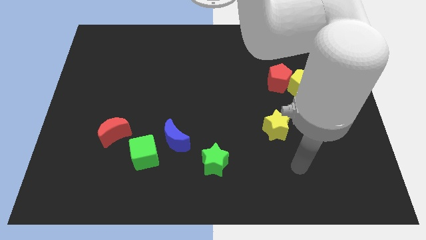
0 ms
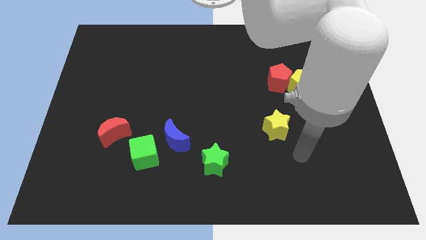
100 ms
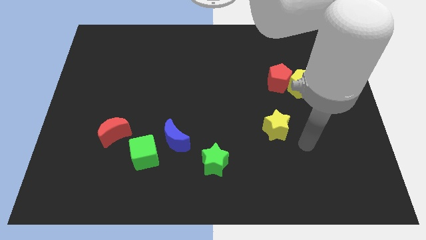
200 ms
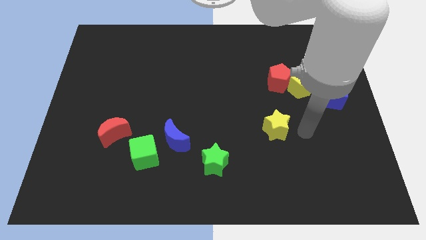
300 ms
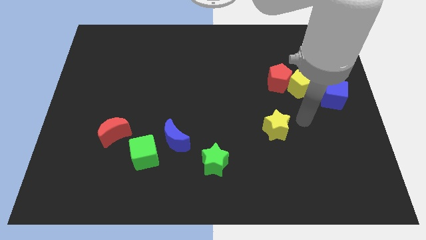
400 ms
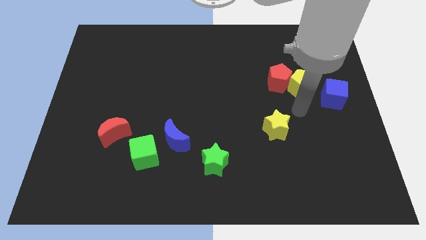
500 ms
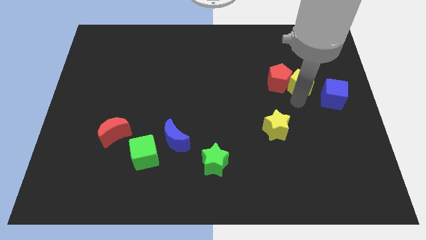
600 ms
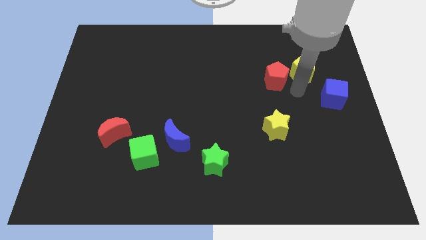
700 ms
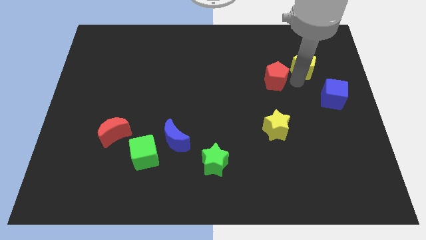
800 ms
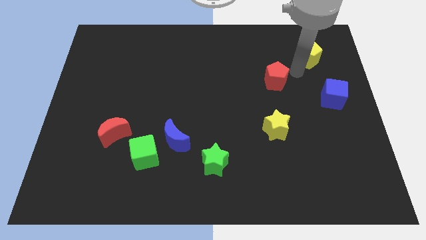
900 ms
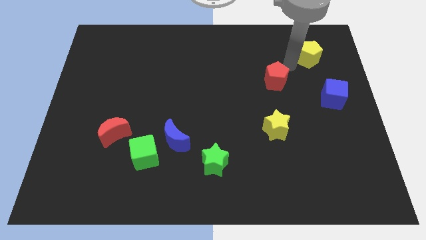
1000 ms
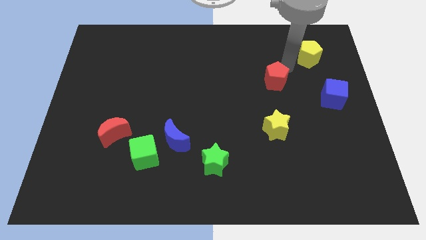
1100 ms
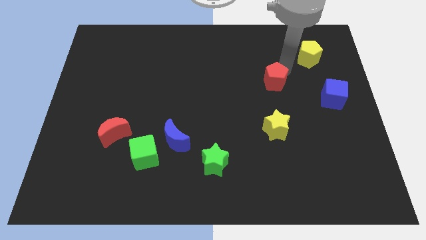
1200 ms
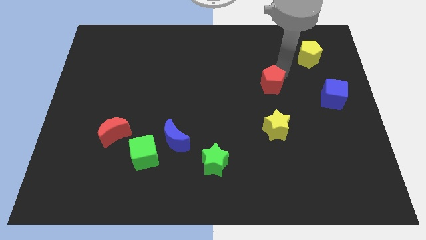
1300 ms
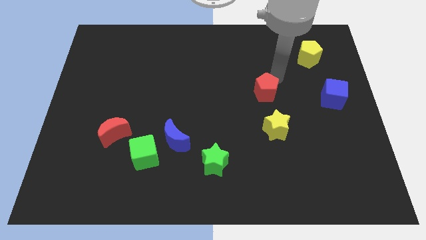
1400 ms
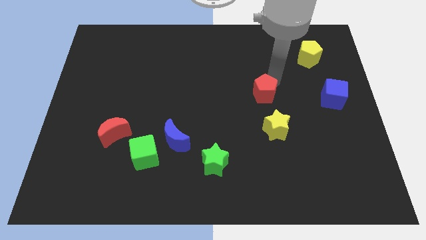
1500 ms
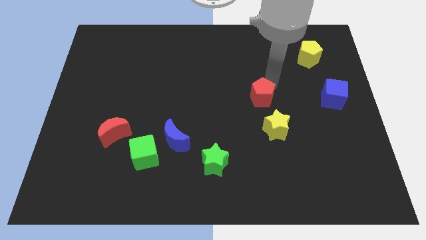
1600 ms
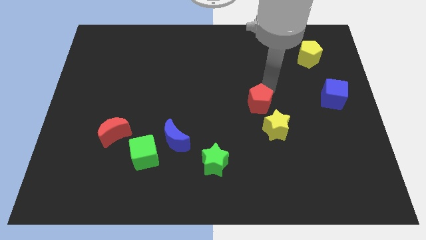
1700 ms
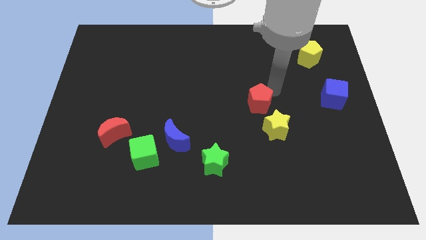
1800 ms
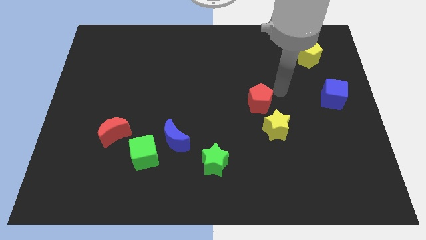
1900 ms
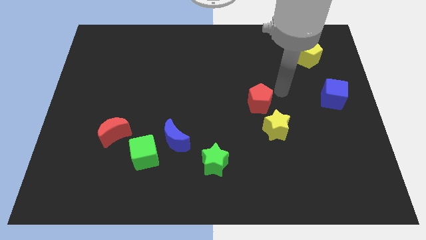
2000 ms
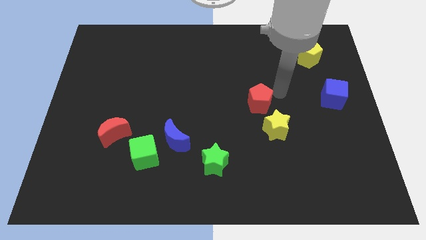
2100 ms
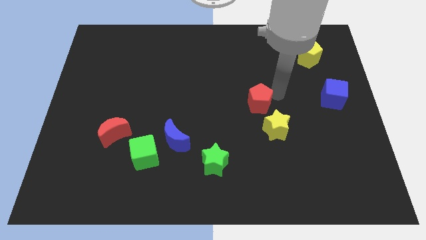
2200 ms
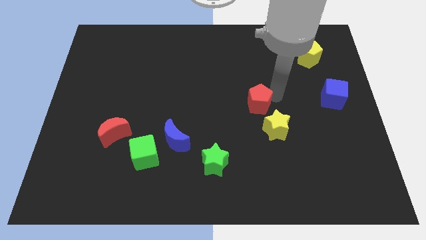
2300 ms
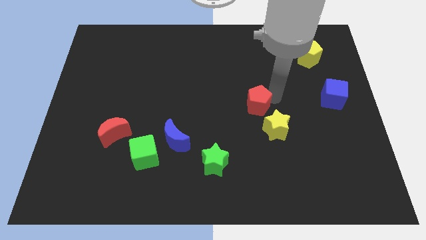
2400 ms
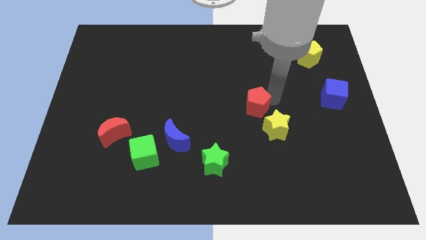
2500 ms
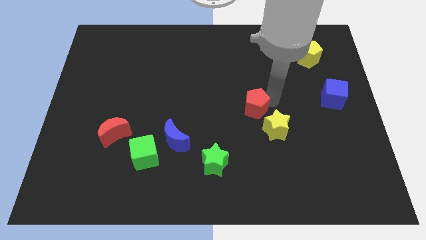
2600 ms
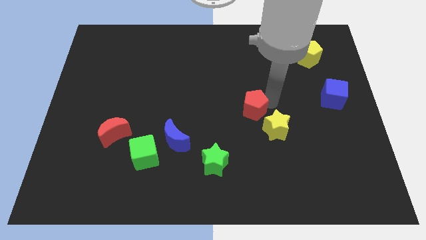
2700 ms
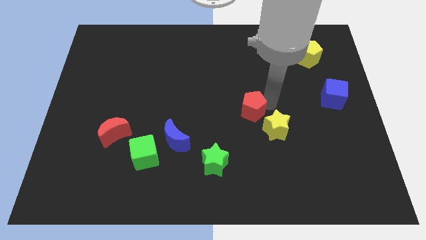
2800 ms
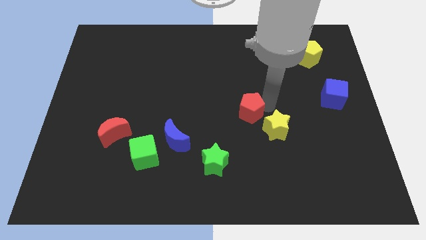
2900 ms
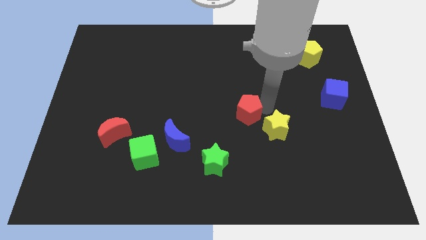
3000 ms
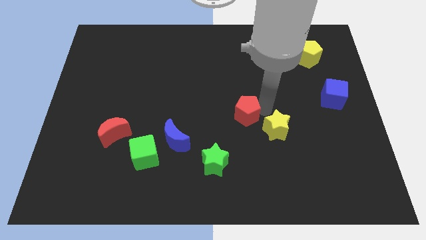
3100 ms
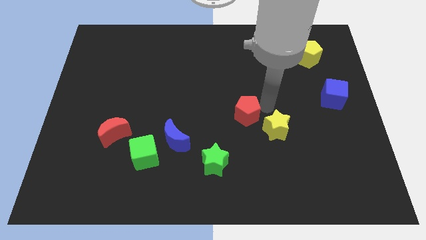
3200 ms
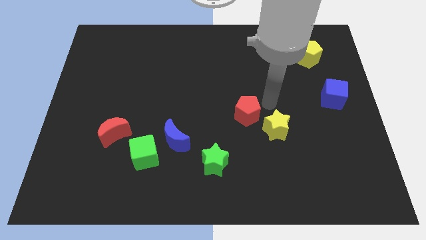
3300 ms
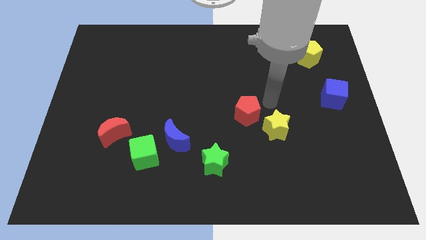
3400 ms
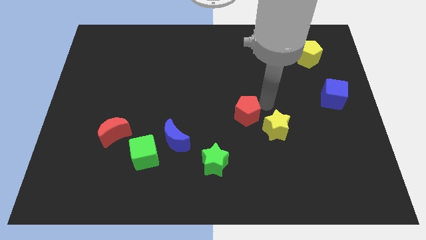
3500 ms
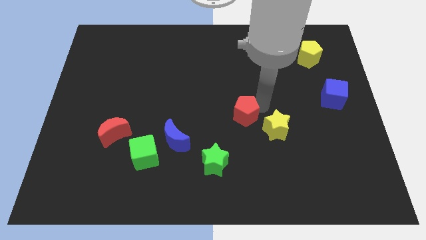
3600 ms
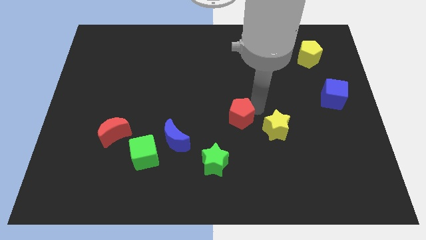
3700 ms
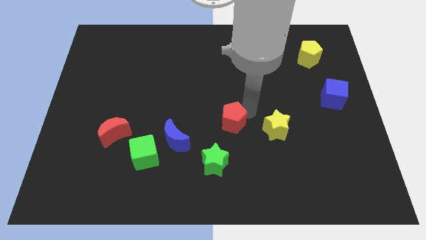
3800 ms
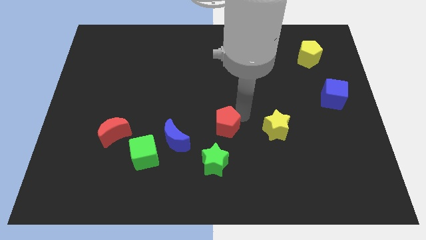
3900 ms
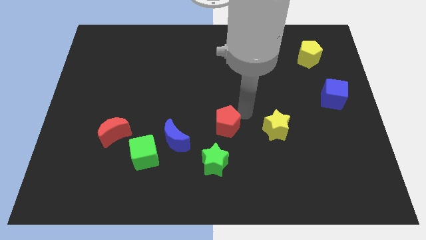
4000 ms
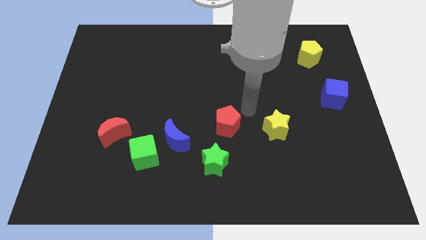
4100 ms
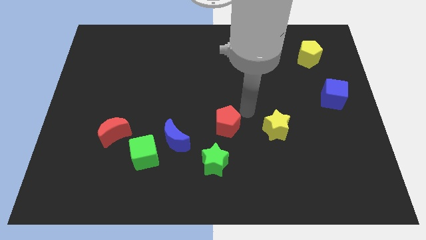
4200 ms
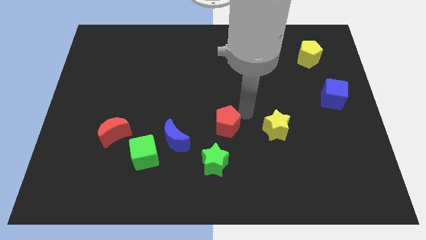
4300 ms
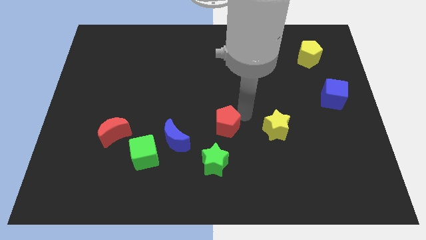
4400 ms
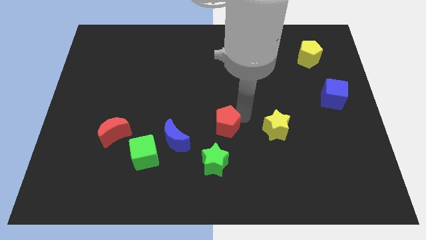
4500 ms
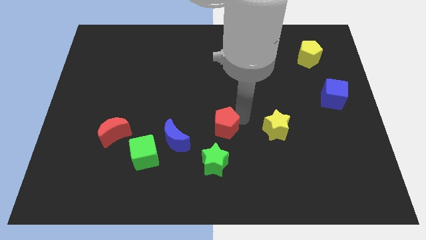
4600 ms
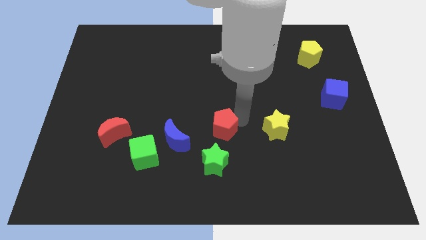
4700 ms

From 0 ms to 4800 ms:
move the red pentagon downwards and then to the left

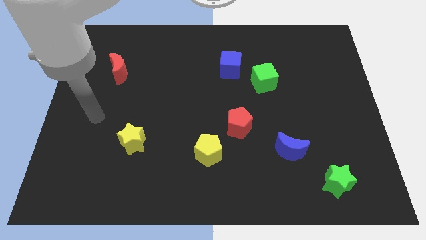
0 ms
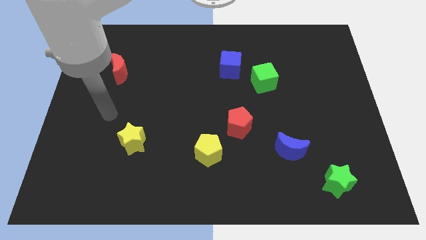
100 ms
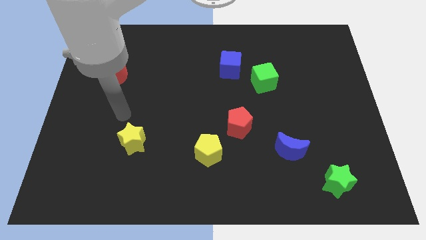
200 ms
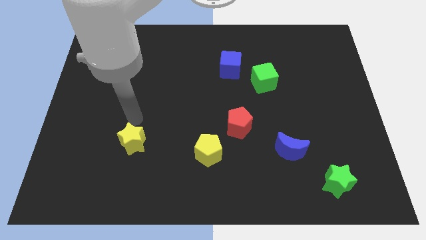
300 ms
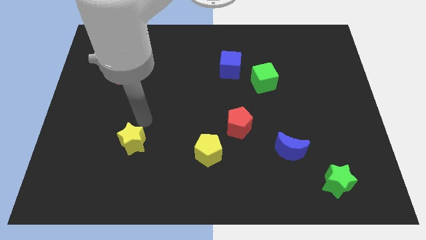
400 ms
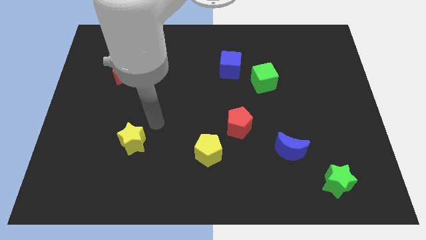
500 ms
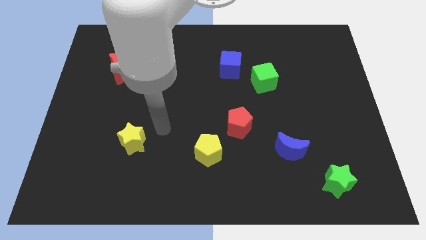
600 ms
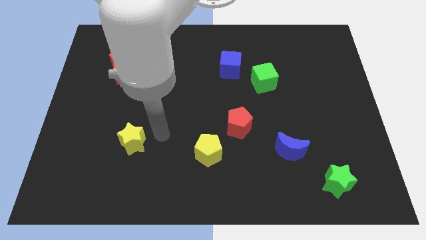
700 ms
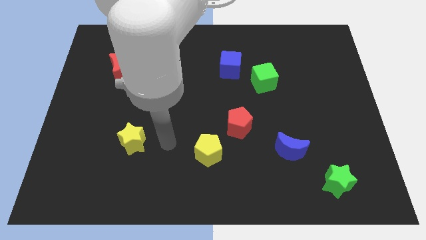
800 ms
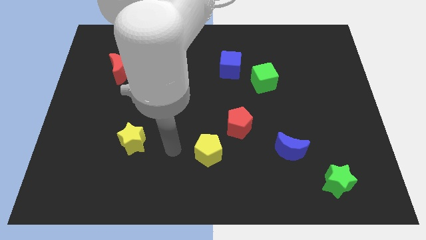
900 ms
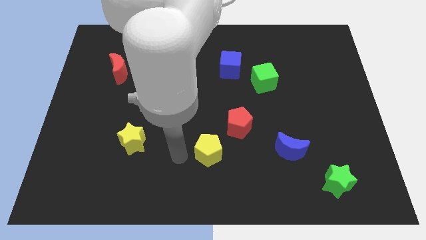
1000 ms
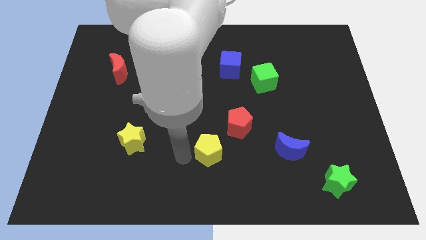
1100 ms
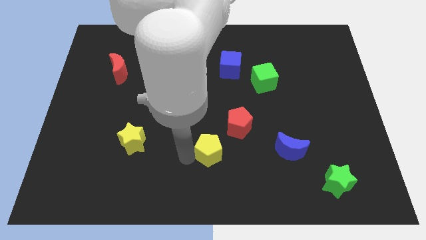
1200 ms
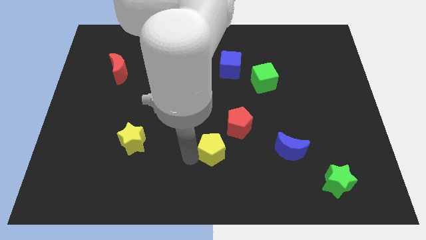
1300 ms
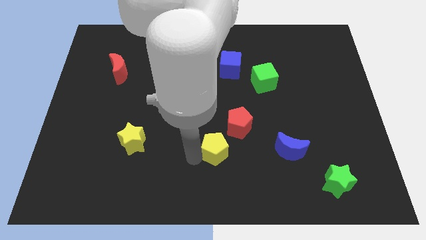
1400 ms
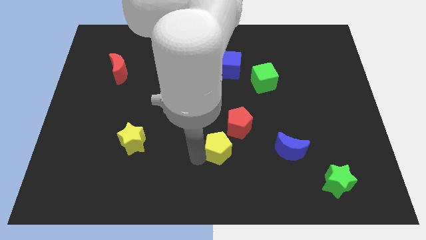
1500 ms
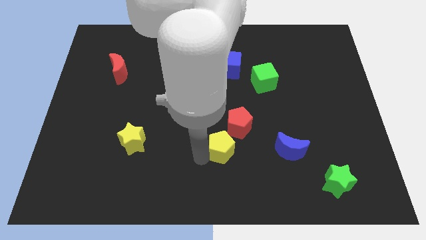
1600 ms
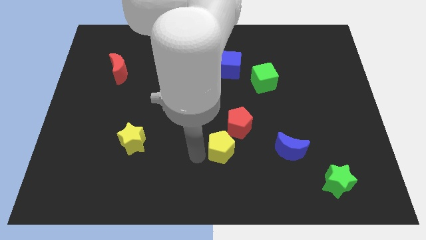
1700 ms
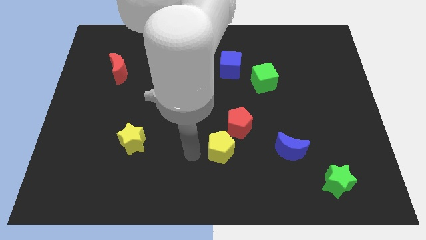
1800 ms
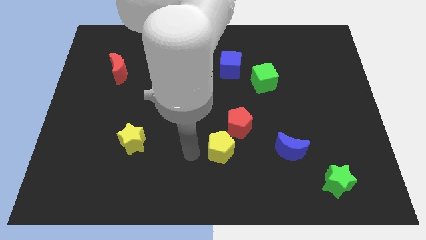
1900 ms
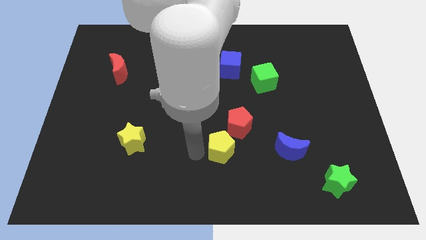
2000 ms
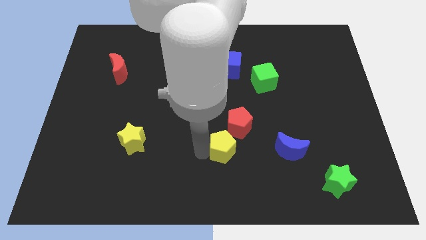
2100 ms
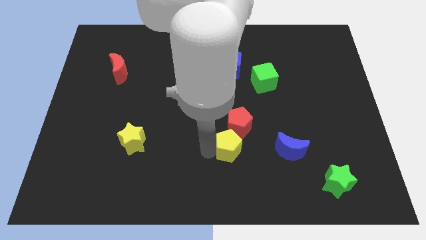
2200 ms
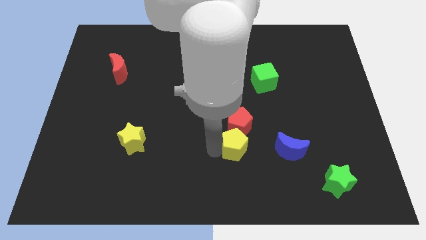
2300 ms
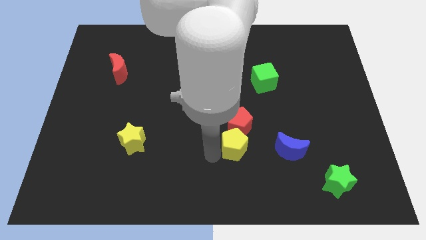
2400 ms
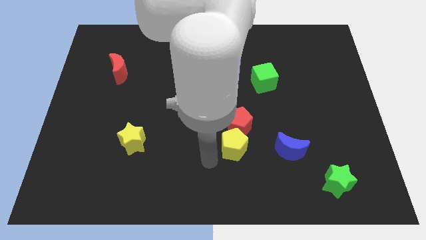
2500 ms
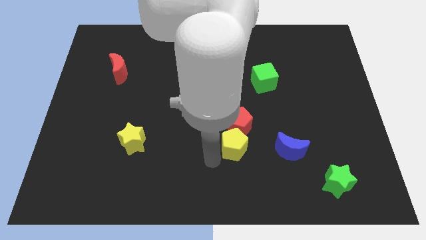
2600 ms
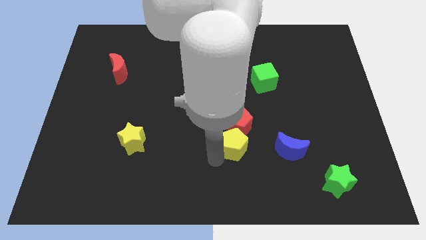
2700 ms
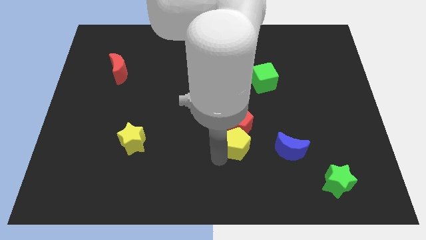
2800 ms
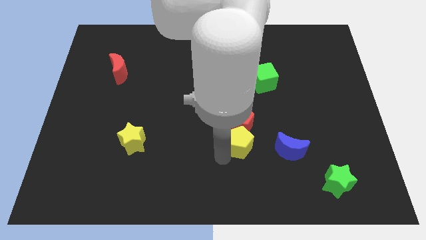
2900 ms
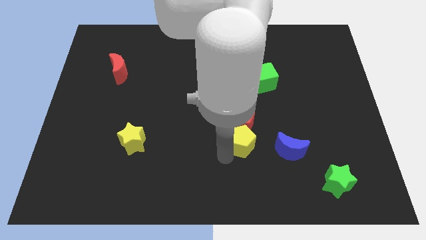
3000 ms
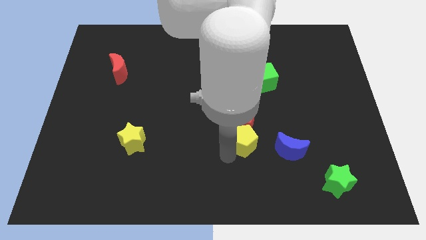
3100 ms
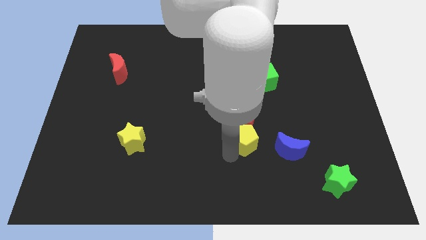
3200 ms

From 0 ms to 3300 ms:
slightly move the yellow pentagon upwards and to the right diagonally
